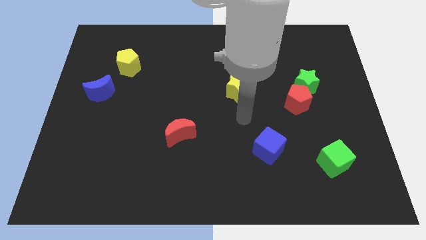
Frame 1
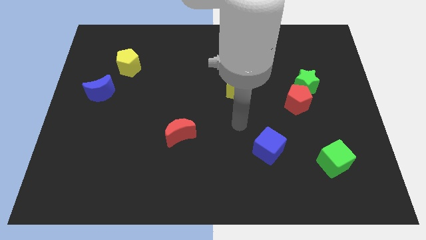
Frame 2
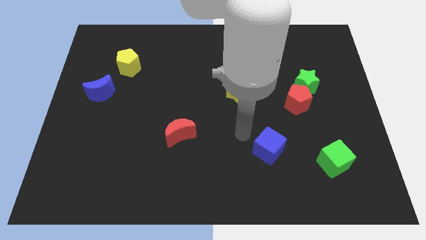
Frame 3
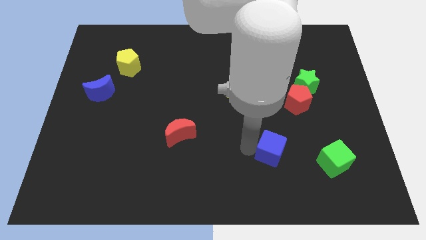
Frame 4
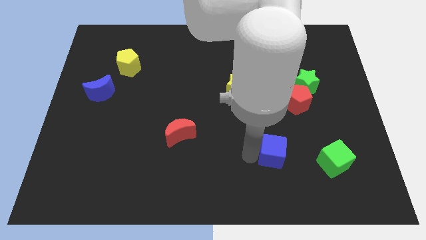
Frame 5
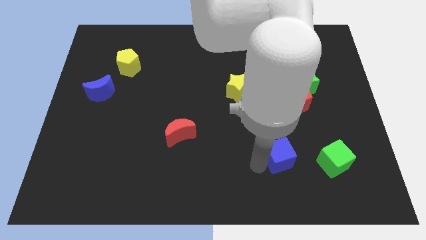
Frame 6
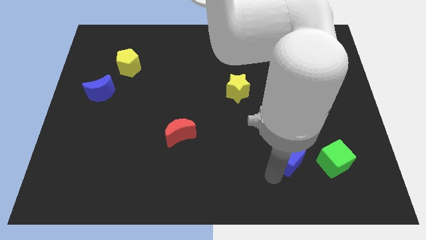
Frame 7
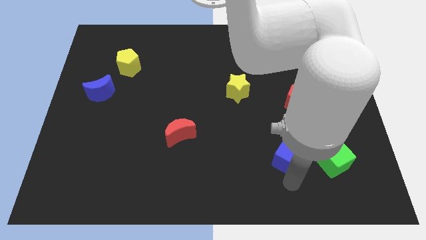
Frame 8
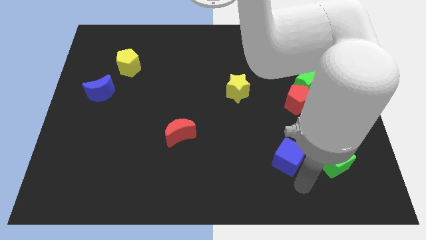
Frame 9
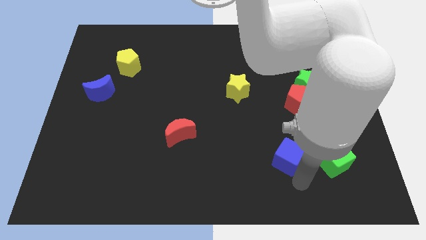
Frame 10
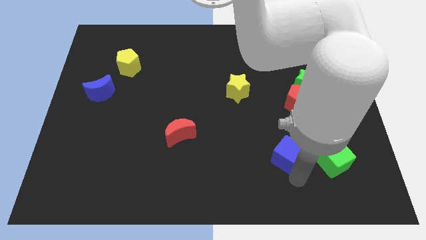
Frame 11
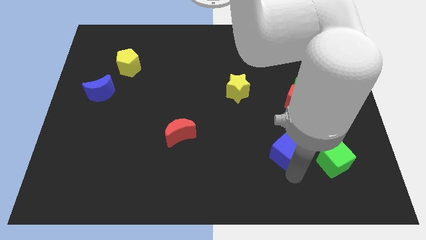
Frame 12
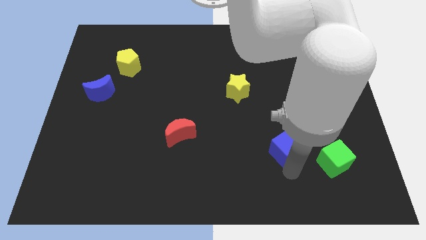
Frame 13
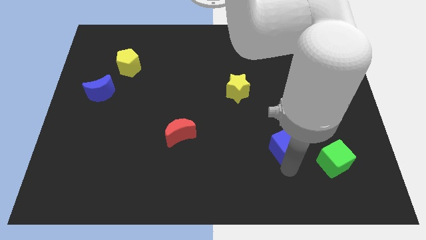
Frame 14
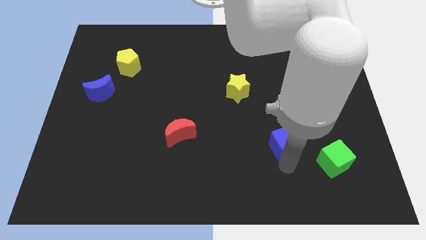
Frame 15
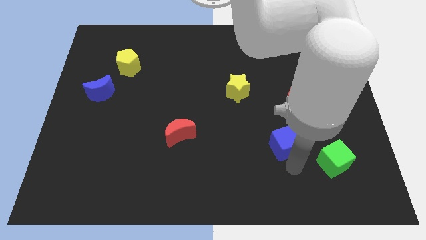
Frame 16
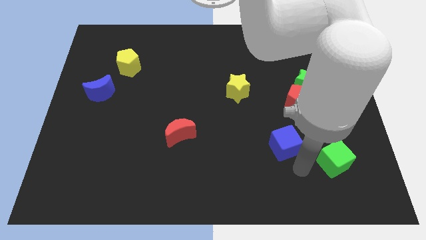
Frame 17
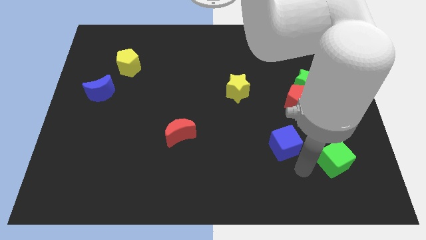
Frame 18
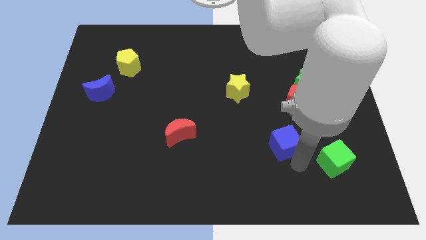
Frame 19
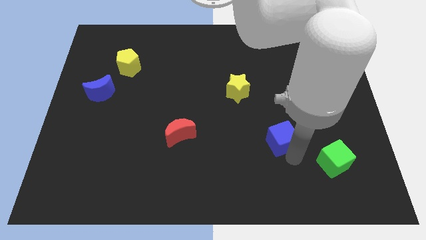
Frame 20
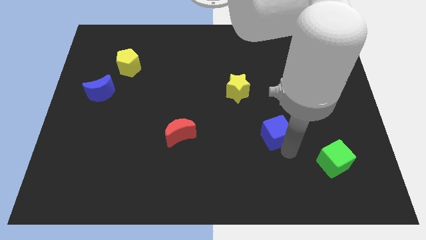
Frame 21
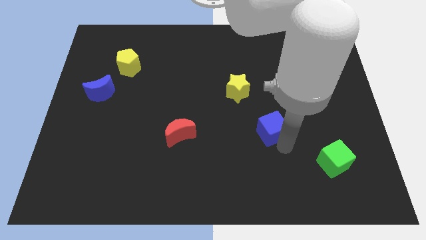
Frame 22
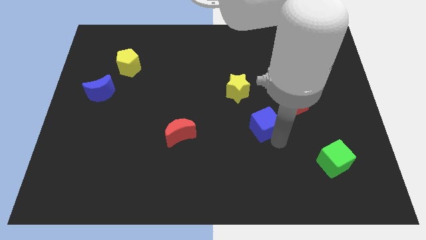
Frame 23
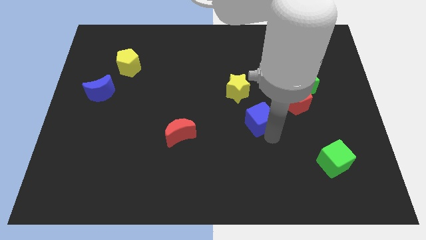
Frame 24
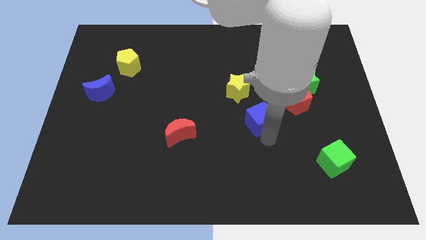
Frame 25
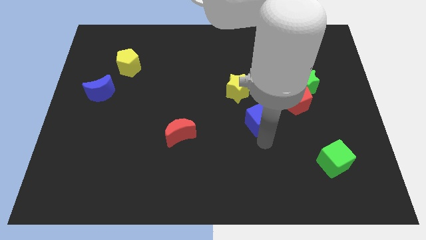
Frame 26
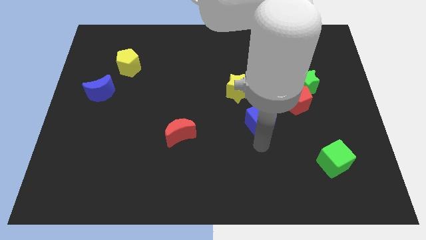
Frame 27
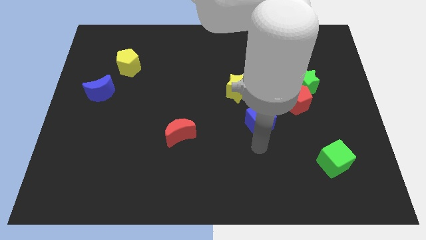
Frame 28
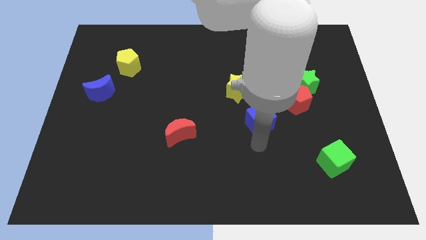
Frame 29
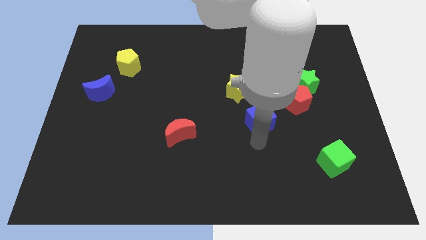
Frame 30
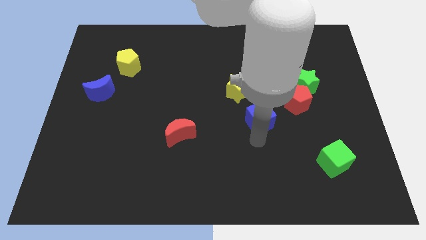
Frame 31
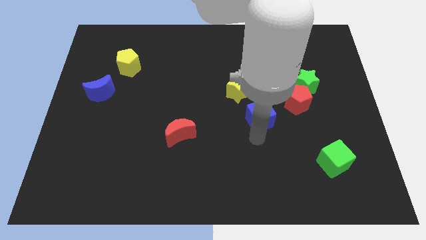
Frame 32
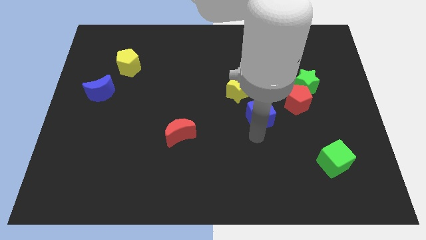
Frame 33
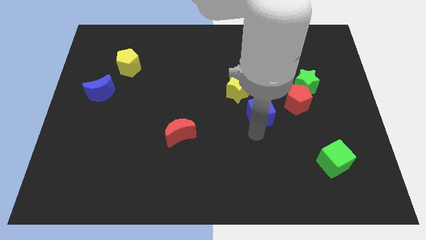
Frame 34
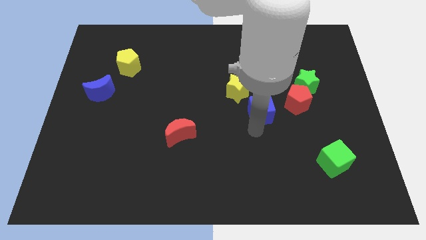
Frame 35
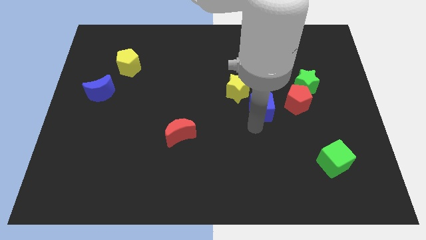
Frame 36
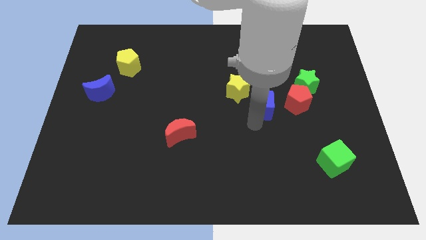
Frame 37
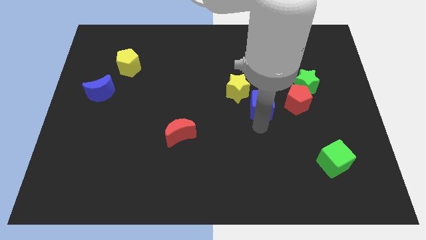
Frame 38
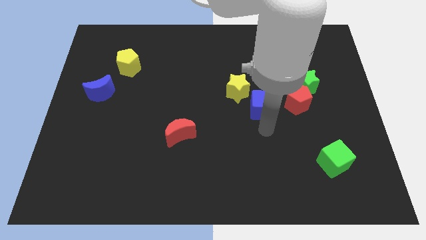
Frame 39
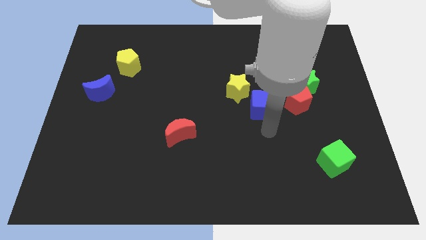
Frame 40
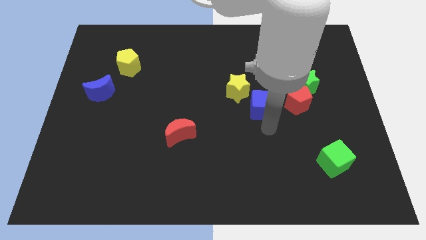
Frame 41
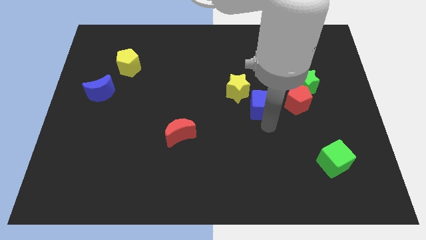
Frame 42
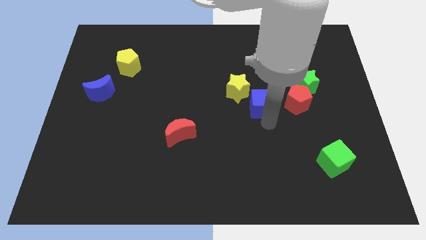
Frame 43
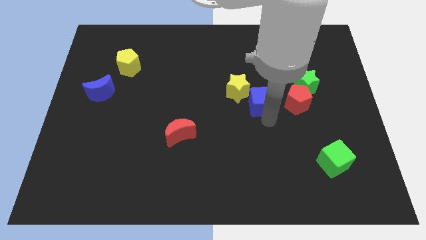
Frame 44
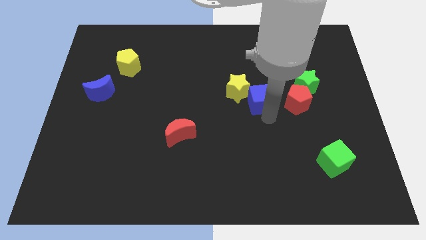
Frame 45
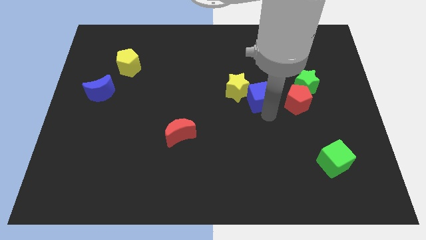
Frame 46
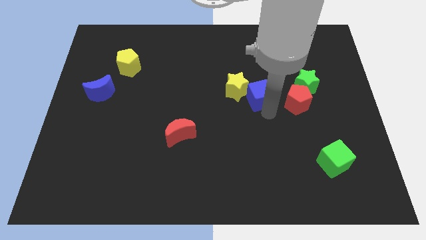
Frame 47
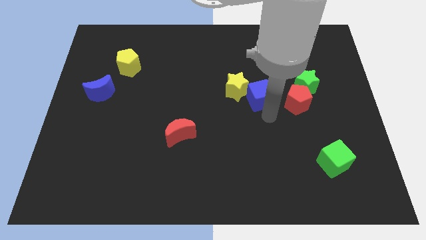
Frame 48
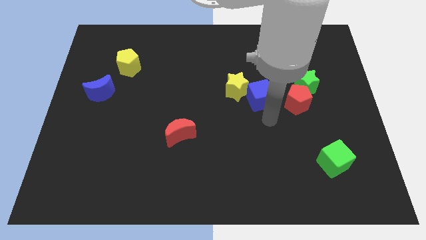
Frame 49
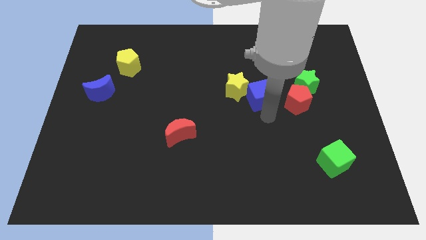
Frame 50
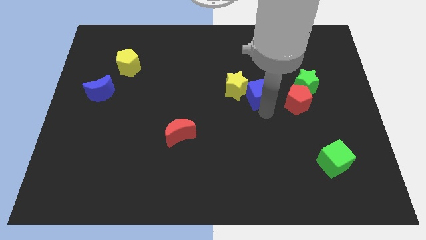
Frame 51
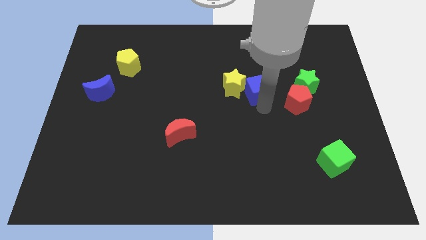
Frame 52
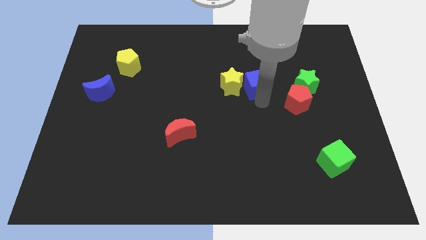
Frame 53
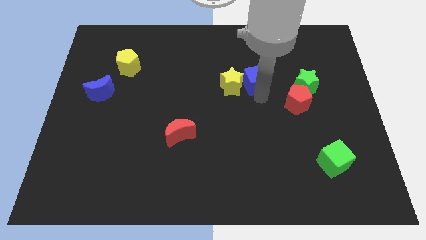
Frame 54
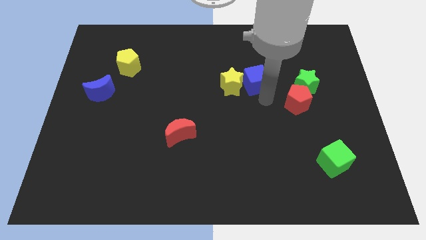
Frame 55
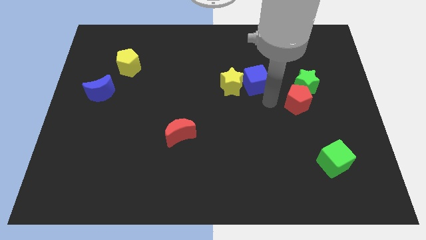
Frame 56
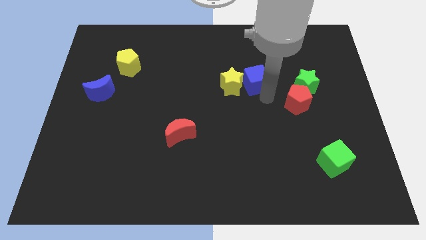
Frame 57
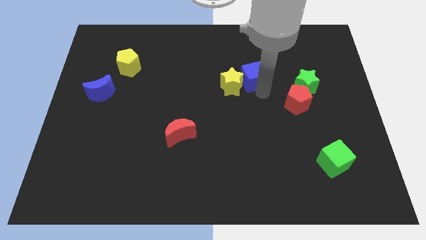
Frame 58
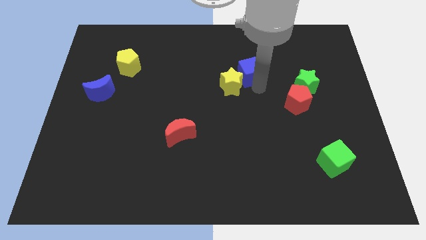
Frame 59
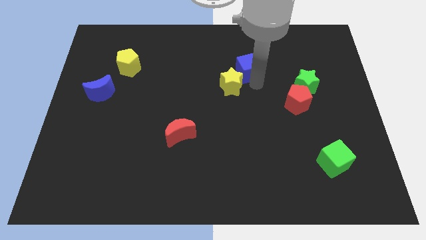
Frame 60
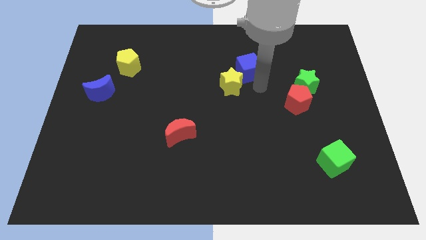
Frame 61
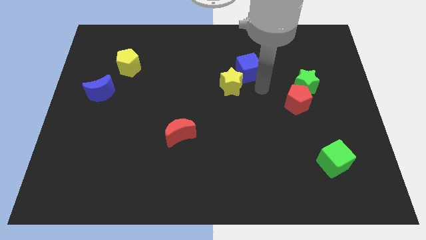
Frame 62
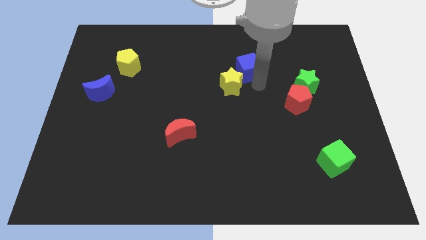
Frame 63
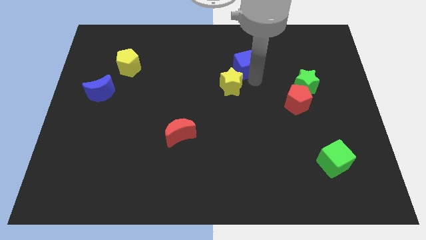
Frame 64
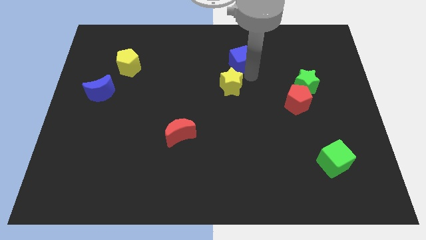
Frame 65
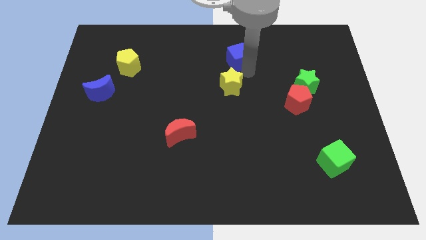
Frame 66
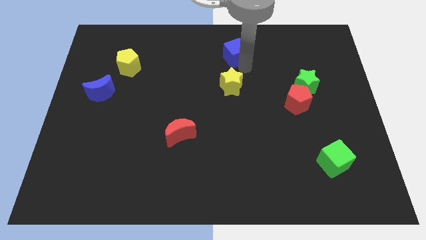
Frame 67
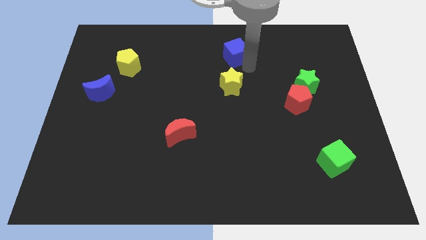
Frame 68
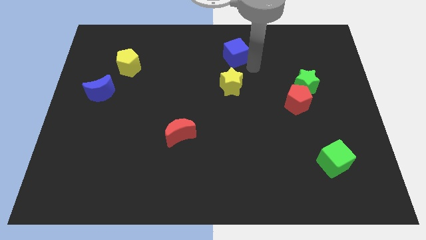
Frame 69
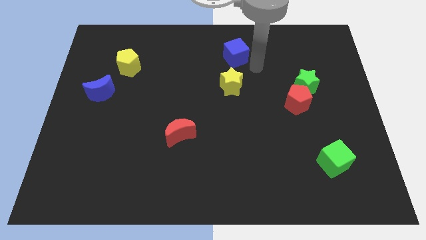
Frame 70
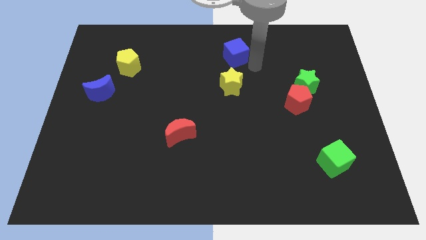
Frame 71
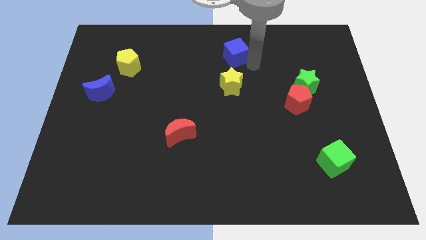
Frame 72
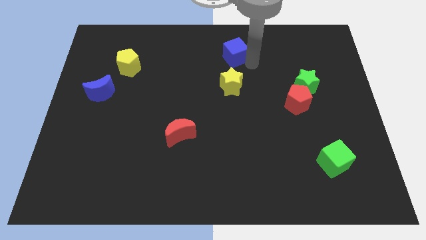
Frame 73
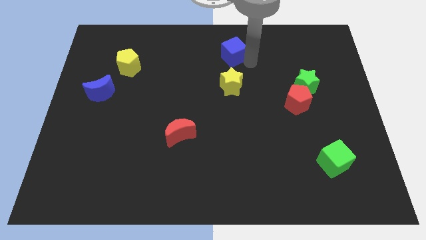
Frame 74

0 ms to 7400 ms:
slide the blue cube to the top side
